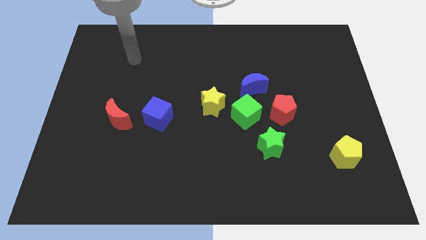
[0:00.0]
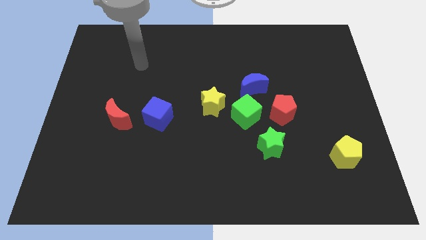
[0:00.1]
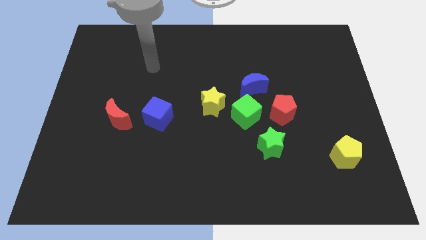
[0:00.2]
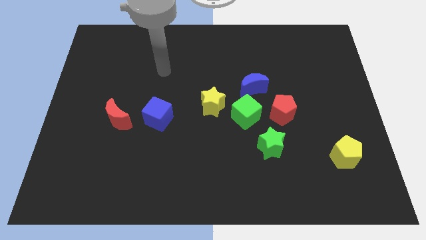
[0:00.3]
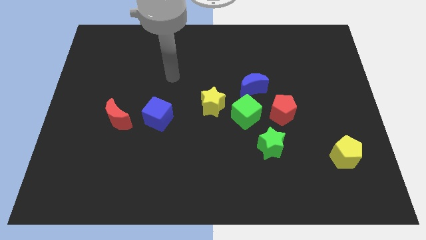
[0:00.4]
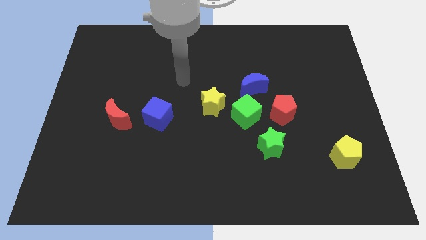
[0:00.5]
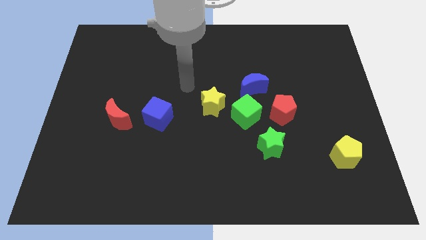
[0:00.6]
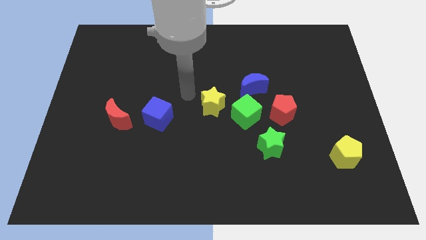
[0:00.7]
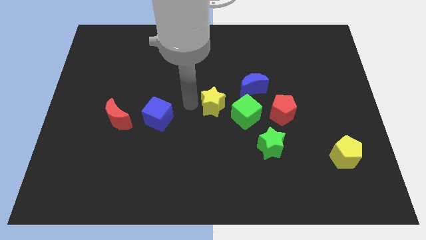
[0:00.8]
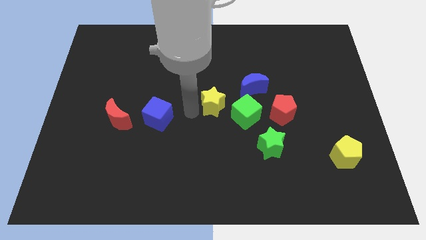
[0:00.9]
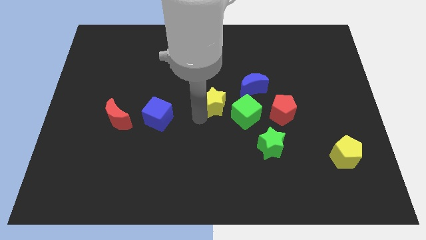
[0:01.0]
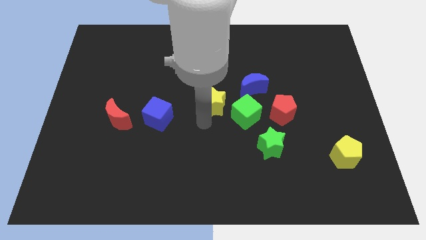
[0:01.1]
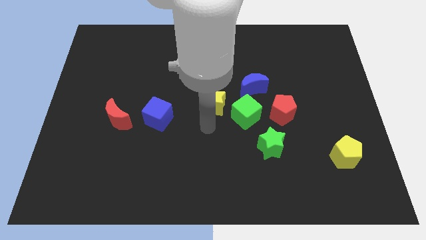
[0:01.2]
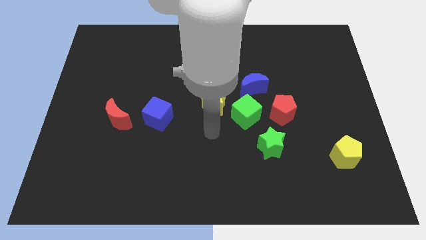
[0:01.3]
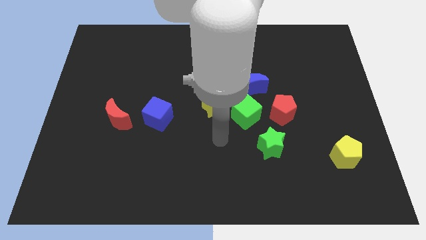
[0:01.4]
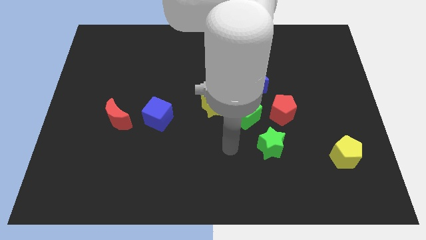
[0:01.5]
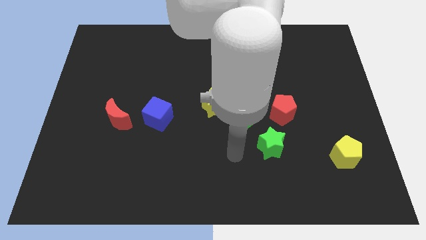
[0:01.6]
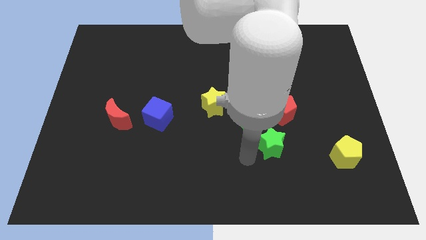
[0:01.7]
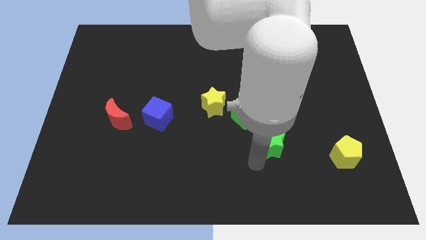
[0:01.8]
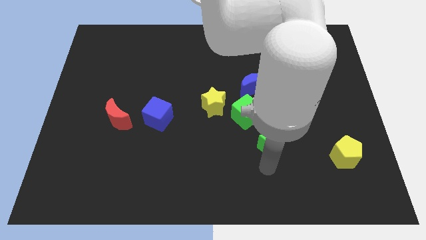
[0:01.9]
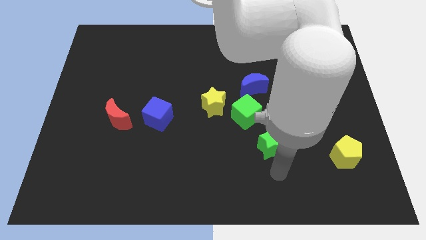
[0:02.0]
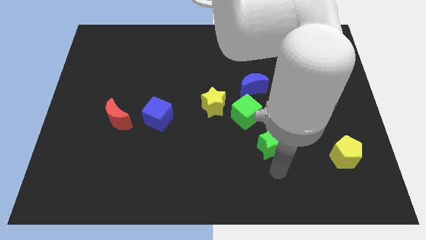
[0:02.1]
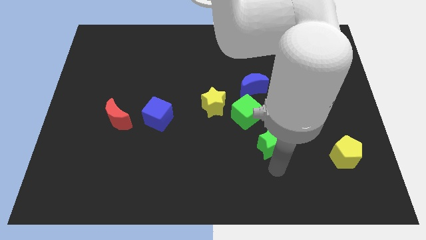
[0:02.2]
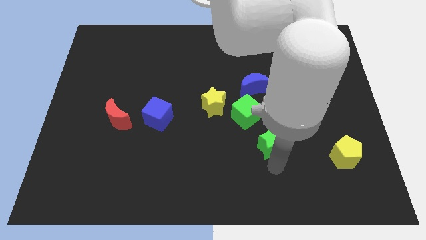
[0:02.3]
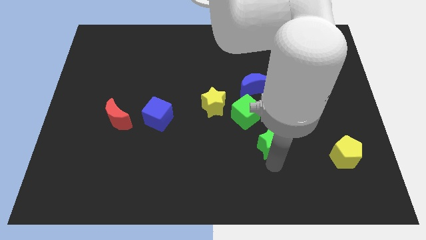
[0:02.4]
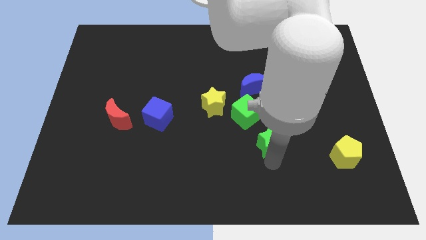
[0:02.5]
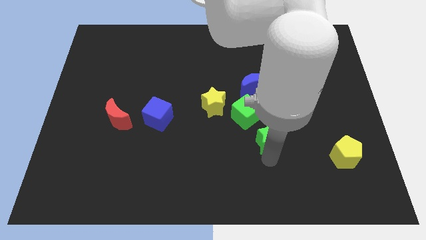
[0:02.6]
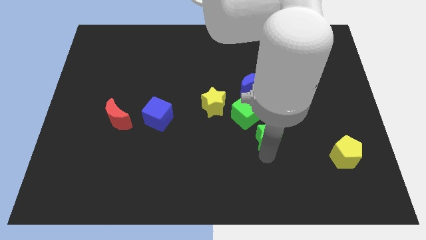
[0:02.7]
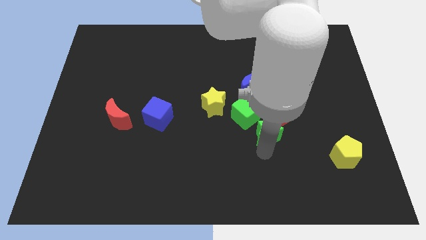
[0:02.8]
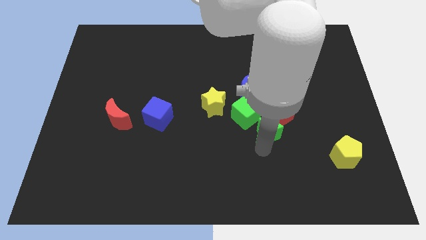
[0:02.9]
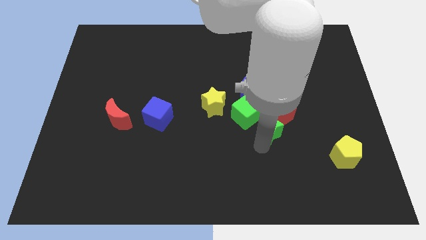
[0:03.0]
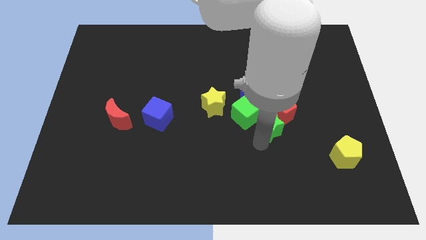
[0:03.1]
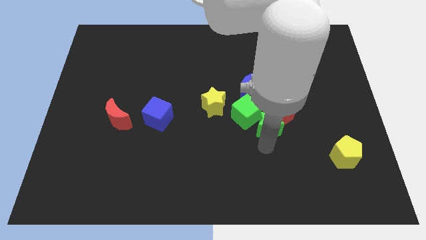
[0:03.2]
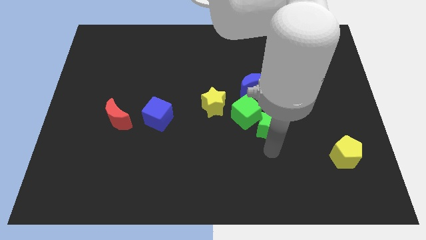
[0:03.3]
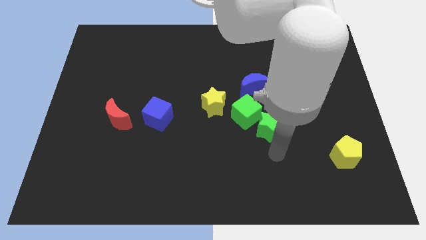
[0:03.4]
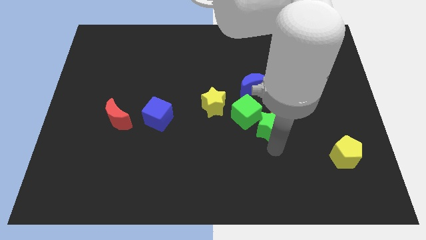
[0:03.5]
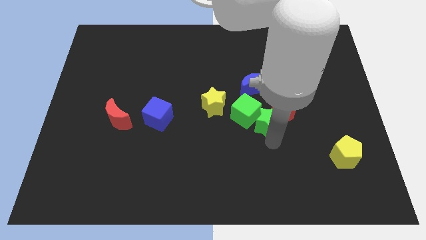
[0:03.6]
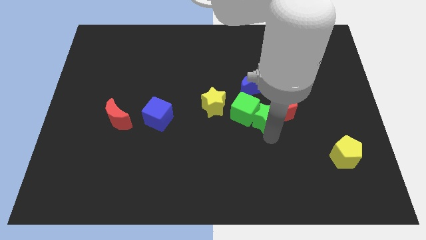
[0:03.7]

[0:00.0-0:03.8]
push the green star up a little

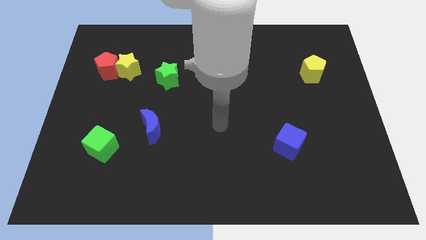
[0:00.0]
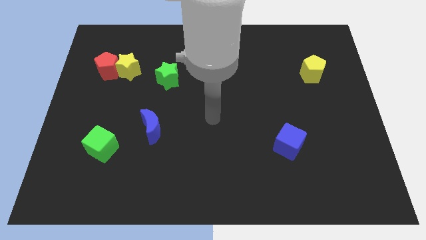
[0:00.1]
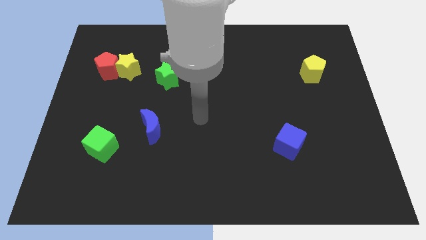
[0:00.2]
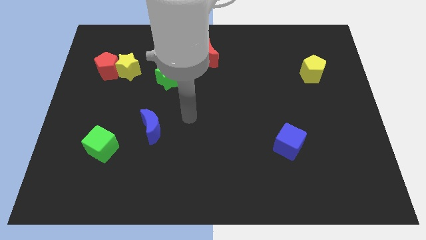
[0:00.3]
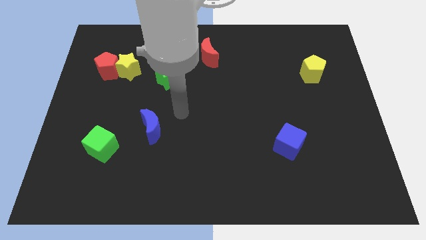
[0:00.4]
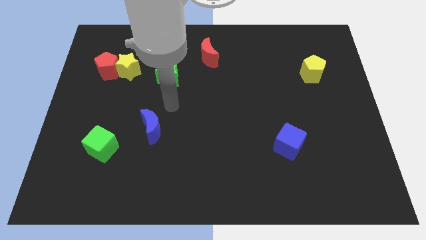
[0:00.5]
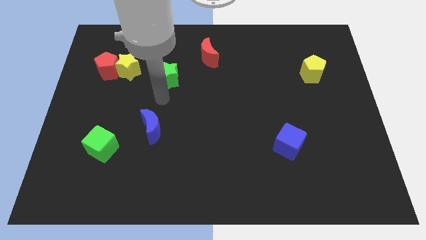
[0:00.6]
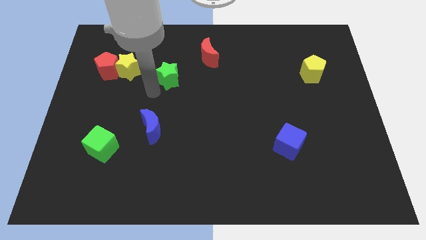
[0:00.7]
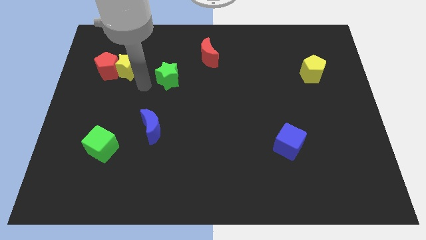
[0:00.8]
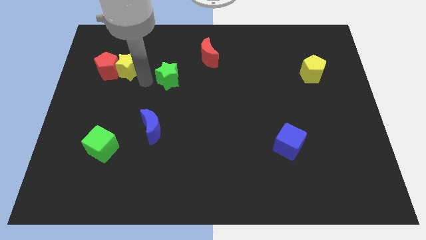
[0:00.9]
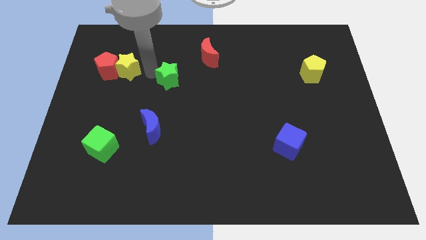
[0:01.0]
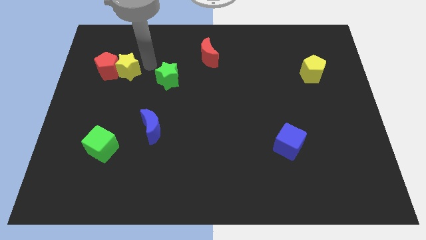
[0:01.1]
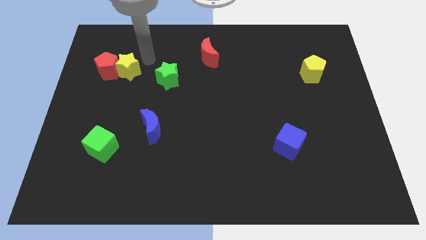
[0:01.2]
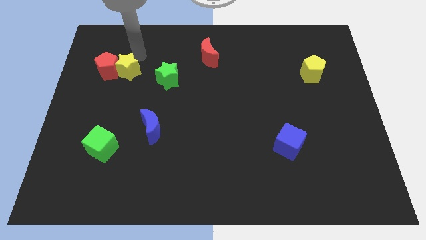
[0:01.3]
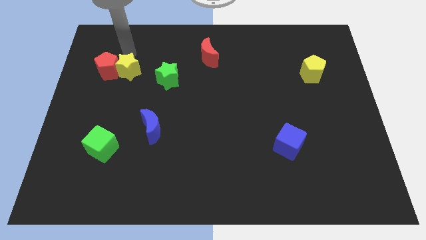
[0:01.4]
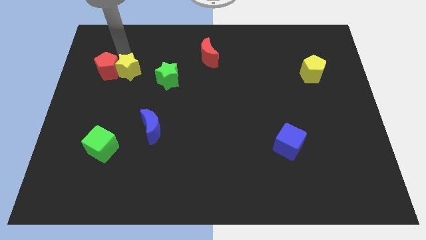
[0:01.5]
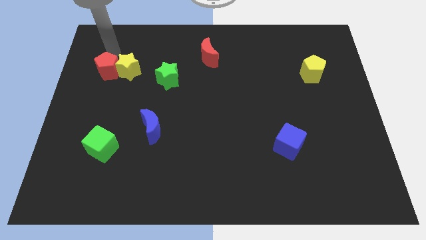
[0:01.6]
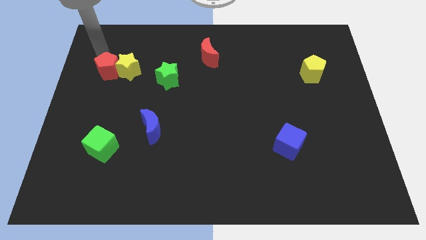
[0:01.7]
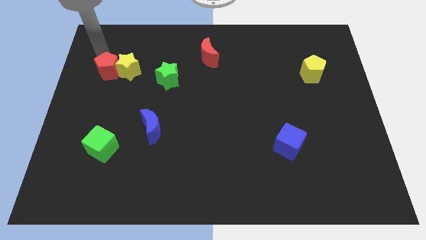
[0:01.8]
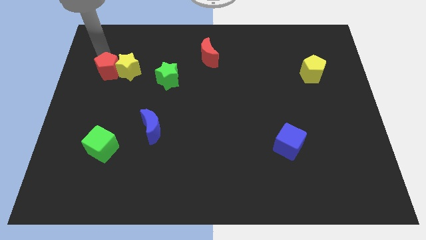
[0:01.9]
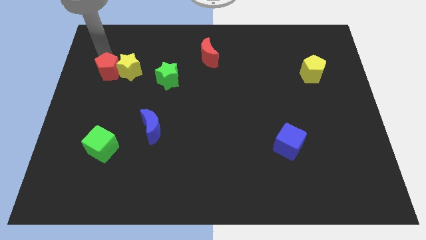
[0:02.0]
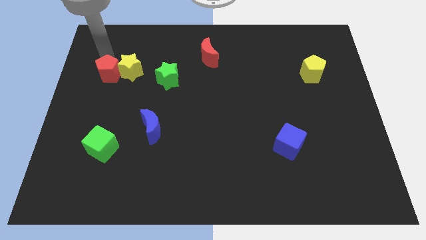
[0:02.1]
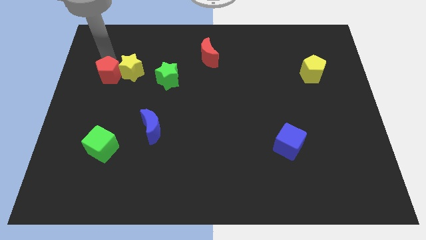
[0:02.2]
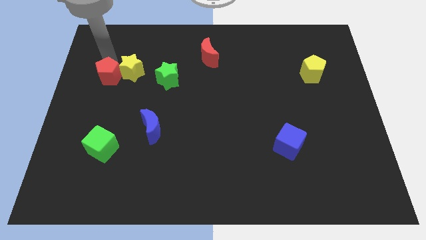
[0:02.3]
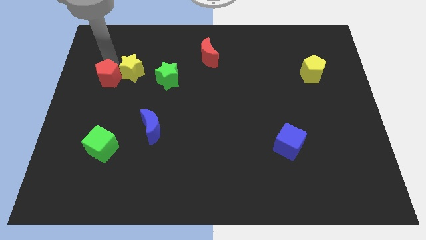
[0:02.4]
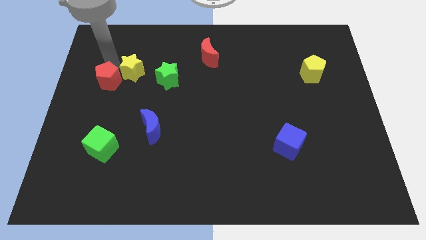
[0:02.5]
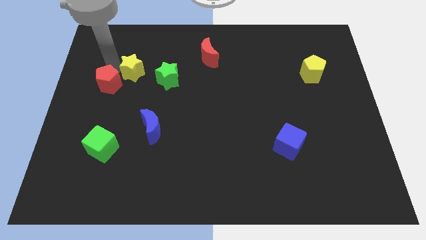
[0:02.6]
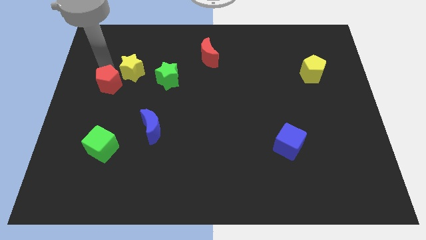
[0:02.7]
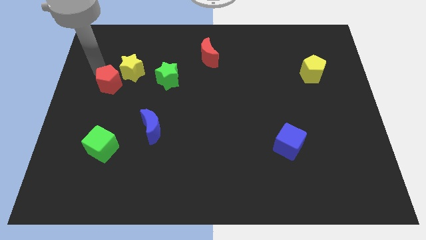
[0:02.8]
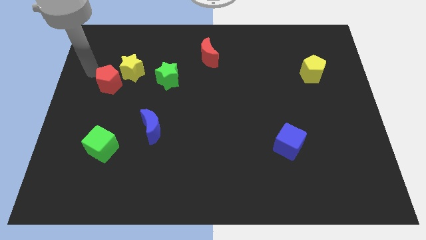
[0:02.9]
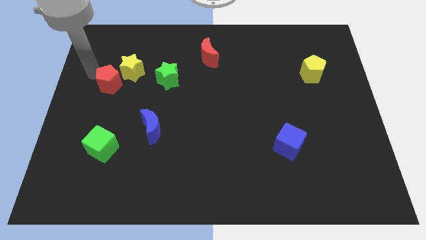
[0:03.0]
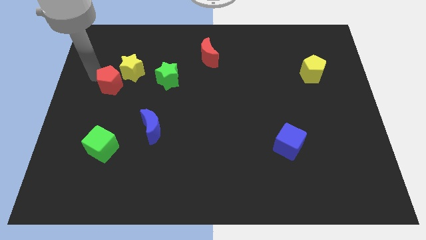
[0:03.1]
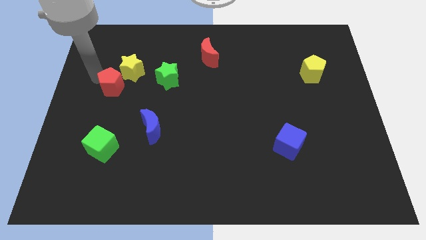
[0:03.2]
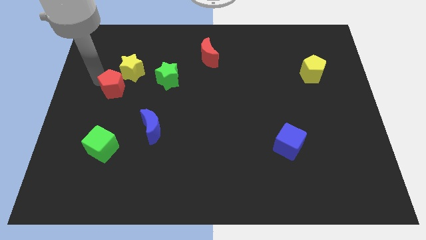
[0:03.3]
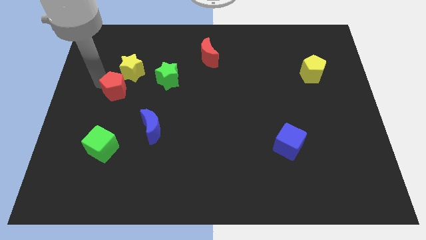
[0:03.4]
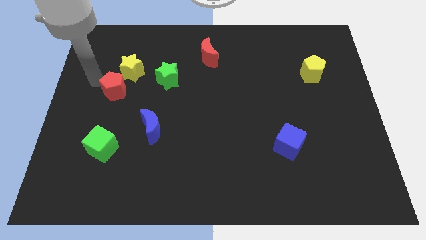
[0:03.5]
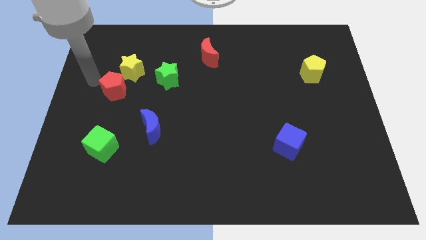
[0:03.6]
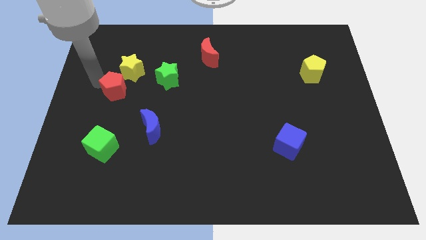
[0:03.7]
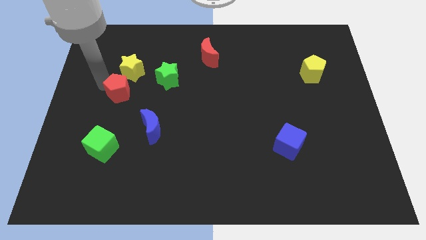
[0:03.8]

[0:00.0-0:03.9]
slightly slide the red pentagon downwards and right

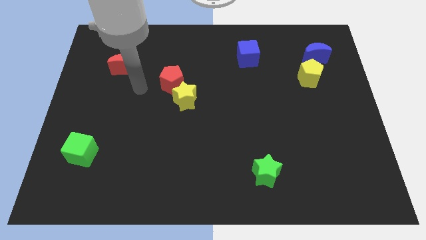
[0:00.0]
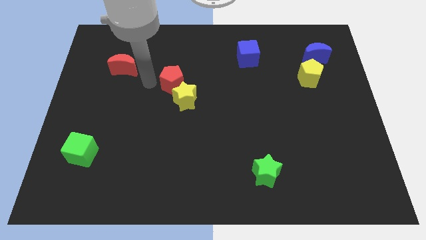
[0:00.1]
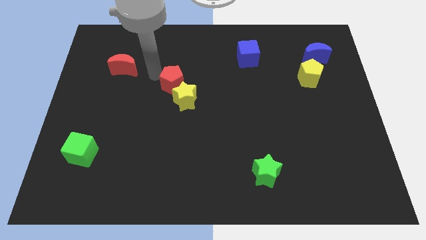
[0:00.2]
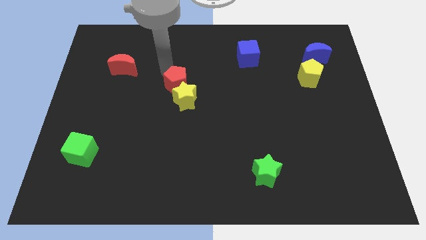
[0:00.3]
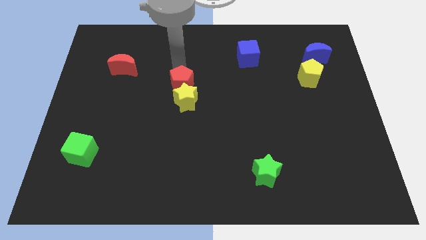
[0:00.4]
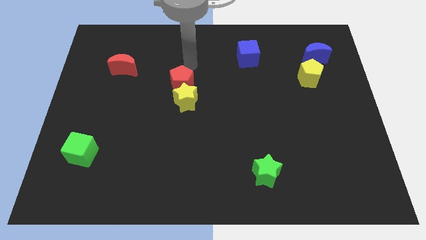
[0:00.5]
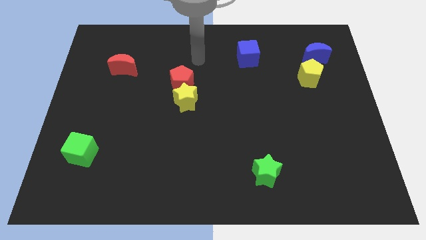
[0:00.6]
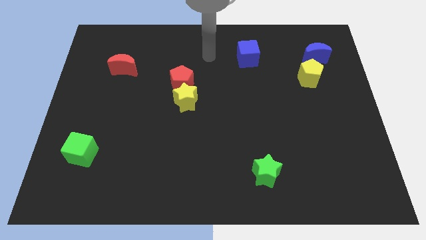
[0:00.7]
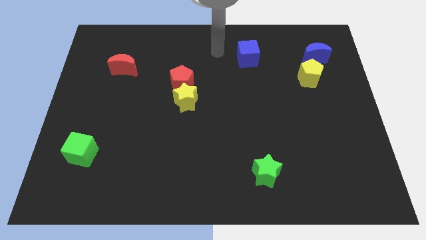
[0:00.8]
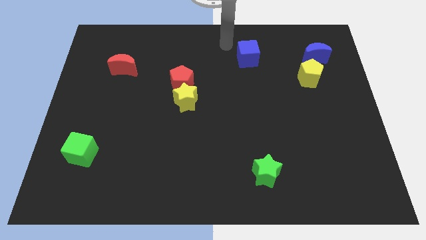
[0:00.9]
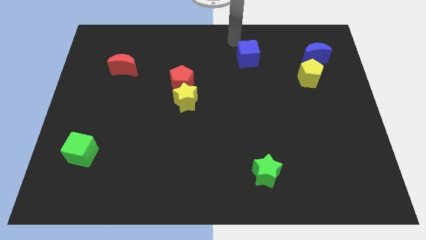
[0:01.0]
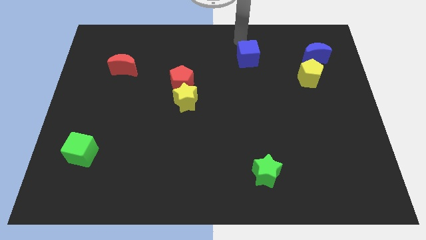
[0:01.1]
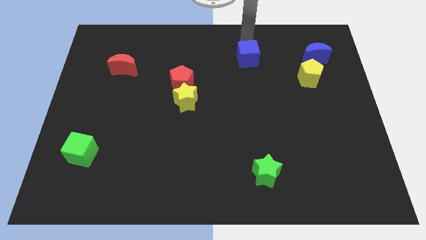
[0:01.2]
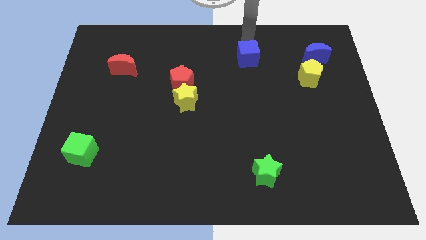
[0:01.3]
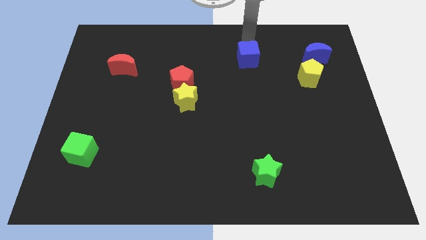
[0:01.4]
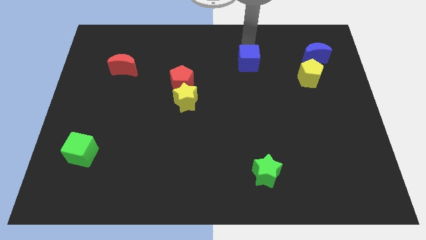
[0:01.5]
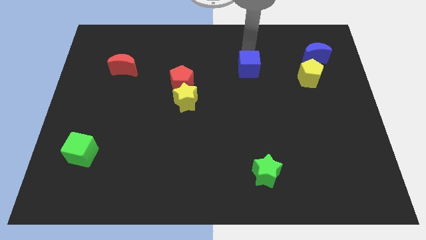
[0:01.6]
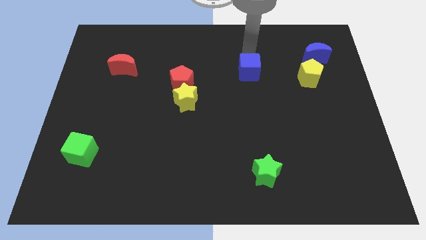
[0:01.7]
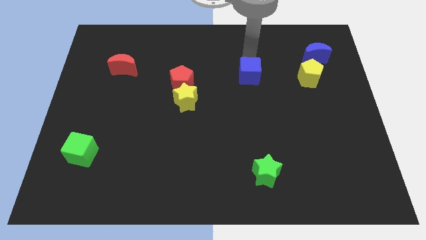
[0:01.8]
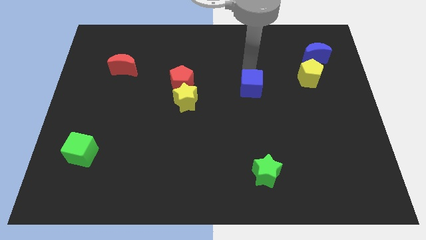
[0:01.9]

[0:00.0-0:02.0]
slightly move the blue cube down
